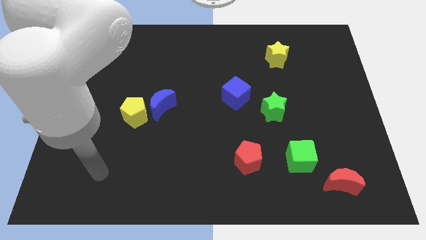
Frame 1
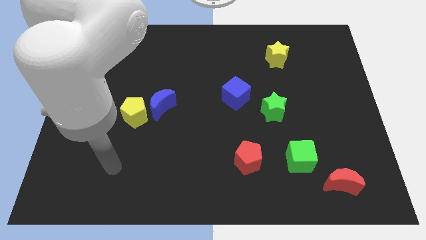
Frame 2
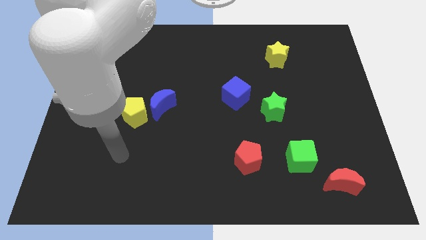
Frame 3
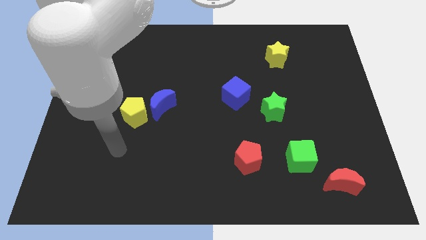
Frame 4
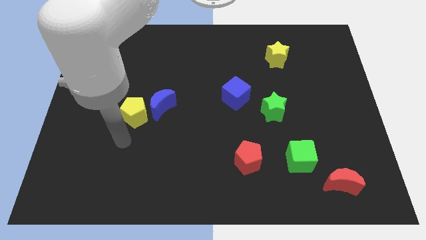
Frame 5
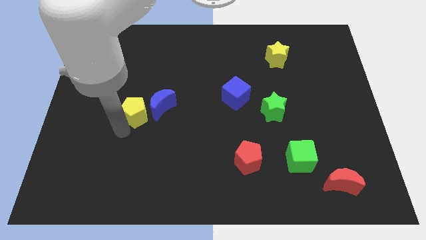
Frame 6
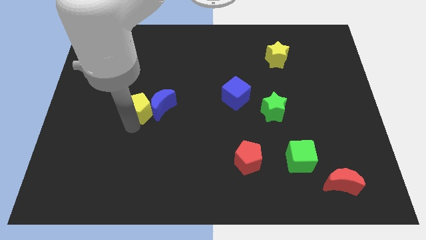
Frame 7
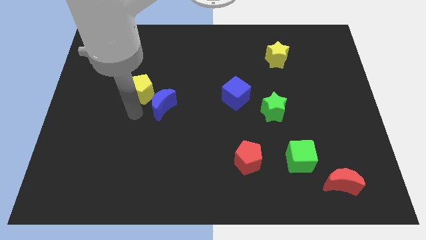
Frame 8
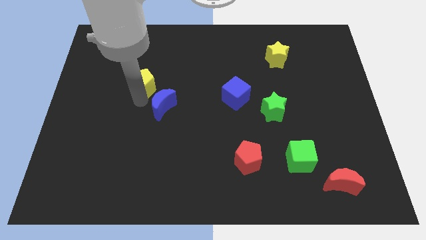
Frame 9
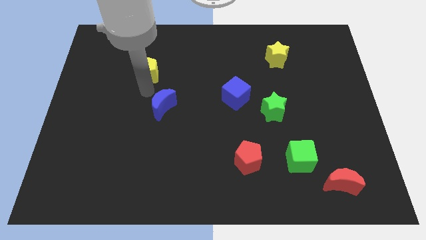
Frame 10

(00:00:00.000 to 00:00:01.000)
separate the blue moon from the yellow pentagon

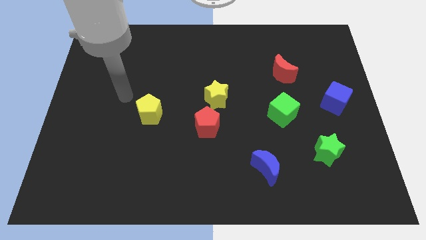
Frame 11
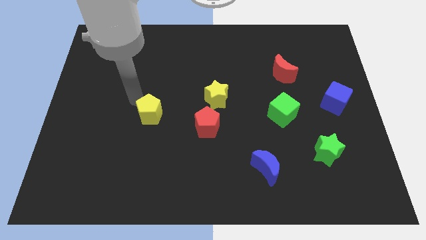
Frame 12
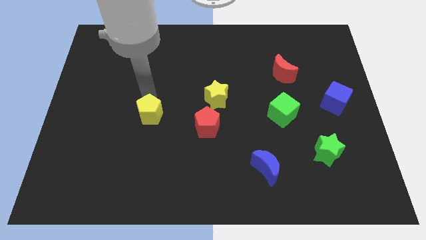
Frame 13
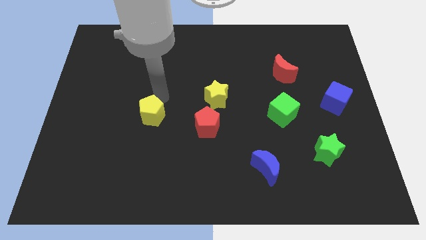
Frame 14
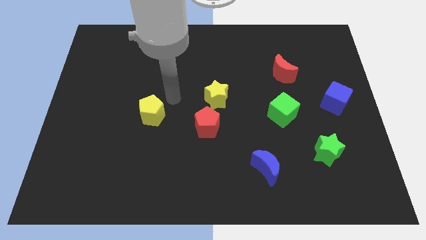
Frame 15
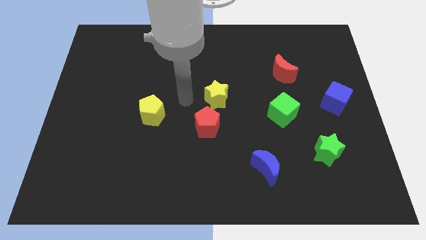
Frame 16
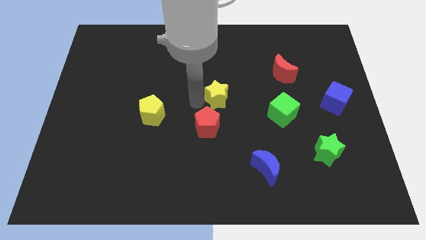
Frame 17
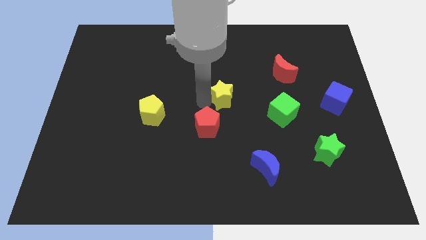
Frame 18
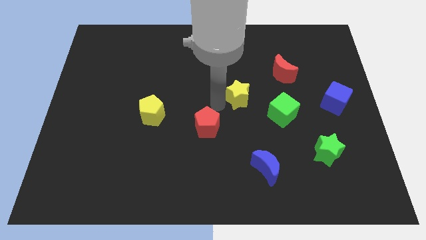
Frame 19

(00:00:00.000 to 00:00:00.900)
move the red pentagon away from the yellow star

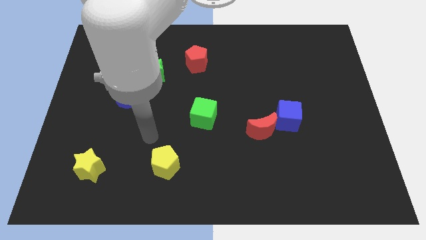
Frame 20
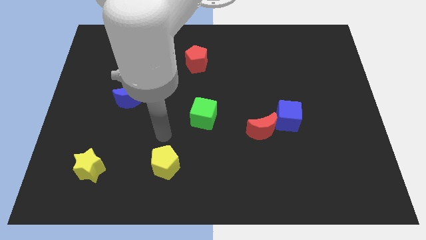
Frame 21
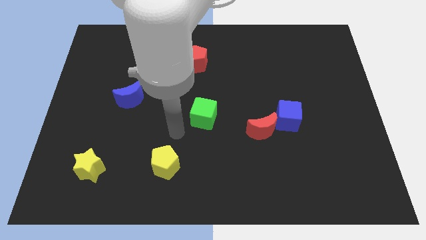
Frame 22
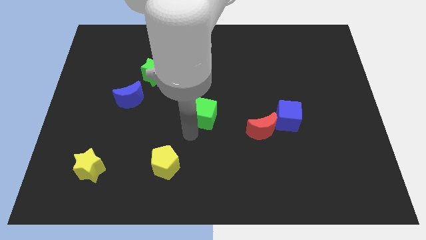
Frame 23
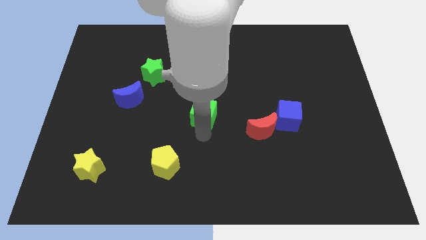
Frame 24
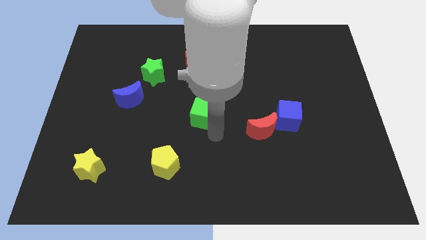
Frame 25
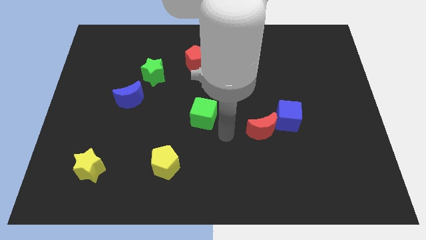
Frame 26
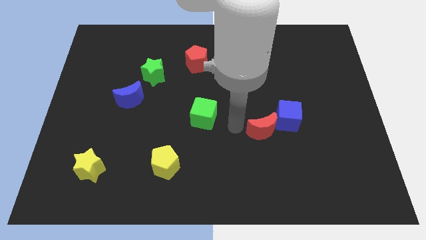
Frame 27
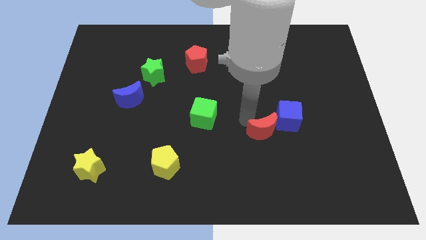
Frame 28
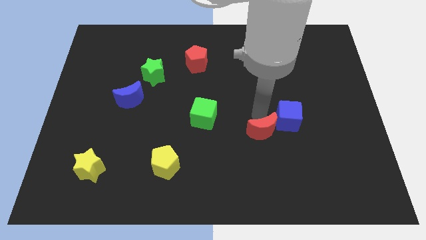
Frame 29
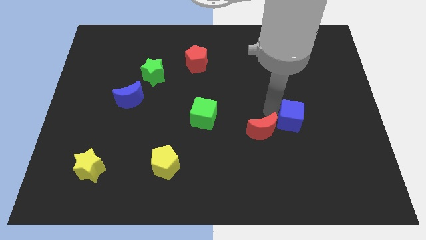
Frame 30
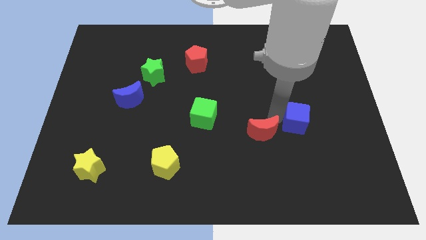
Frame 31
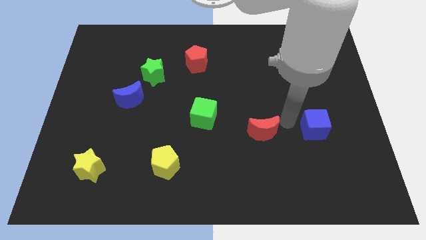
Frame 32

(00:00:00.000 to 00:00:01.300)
pull the red moon apart from the blue cube

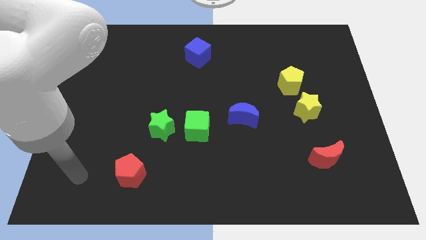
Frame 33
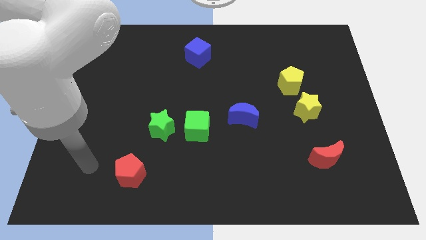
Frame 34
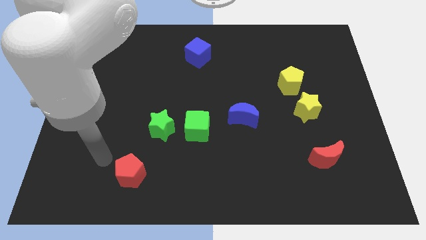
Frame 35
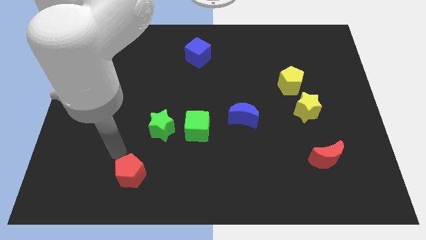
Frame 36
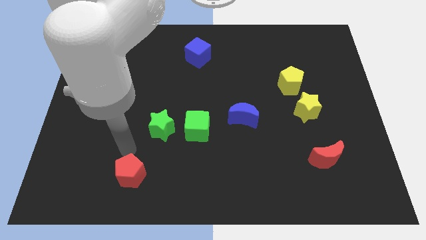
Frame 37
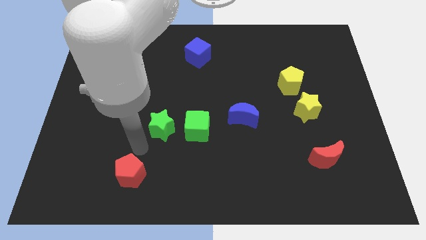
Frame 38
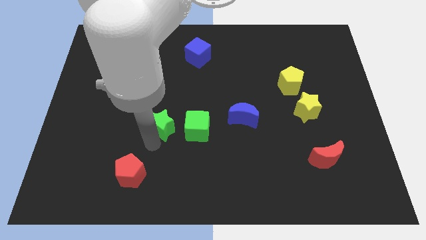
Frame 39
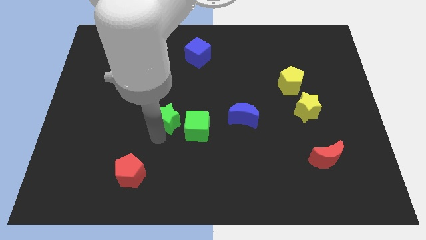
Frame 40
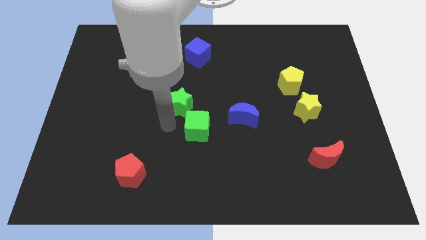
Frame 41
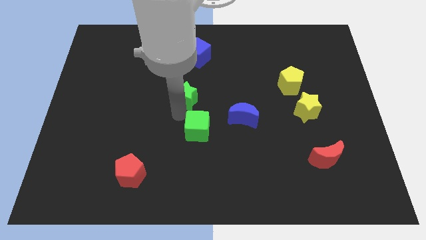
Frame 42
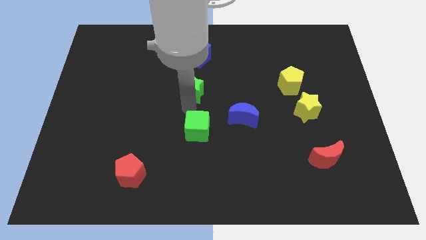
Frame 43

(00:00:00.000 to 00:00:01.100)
separate the green cube from the green star

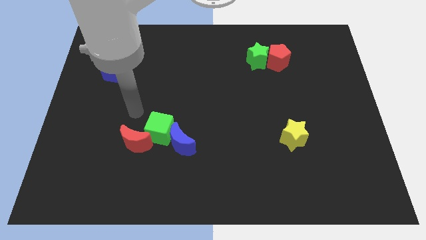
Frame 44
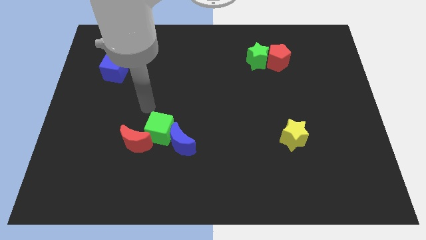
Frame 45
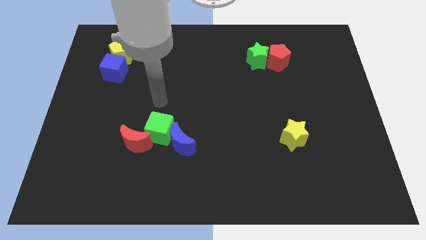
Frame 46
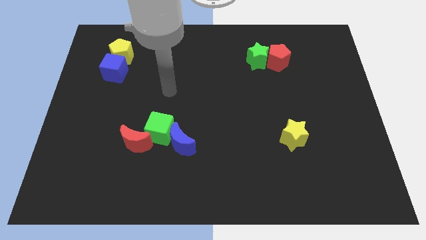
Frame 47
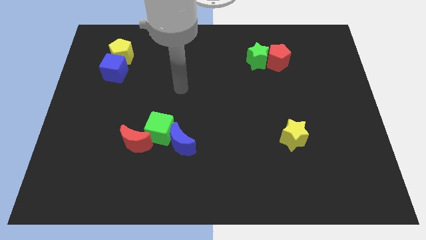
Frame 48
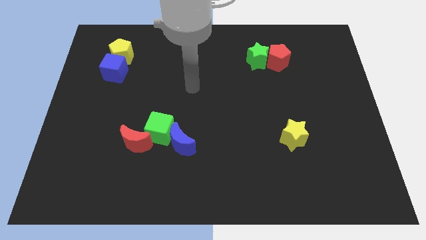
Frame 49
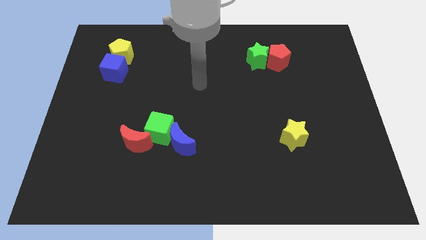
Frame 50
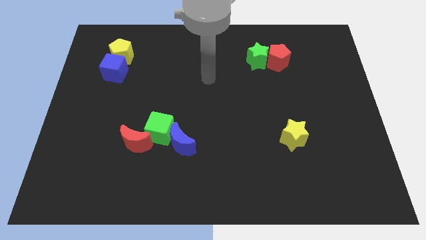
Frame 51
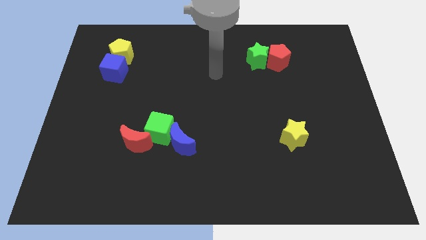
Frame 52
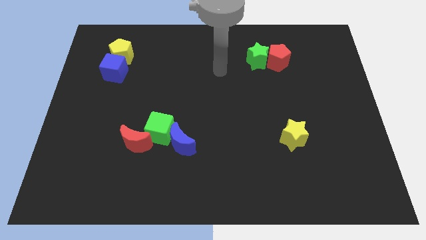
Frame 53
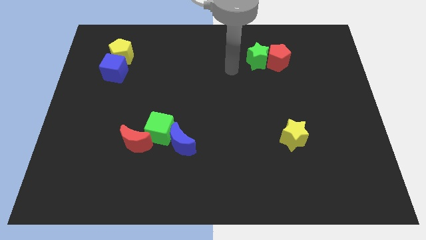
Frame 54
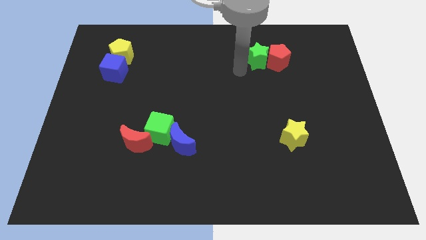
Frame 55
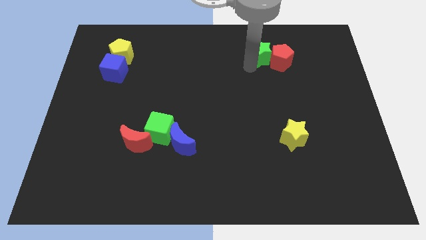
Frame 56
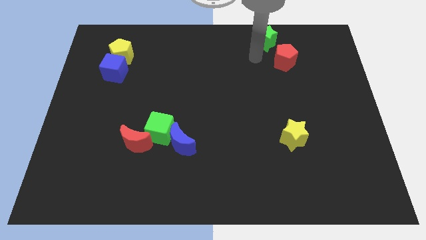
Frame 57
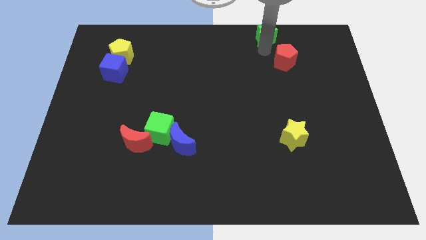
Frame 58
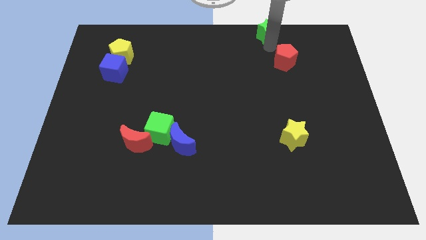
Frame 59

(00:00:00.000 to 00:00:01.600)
move the red pentagon away from the green star

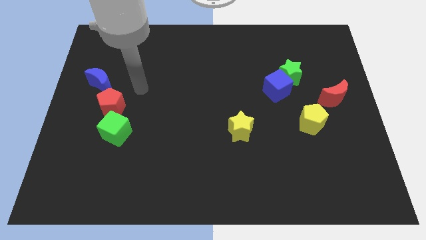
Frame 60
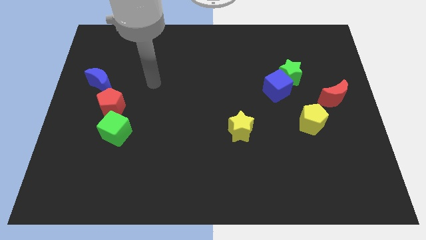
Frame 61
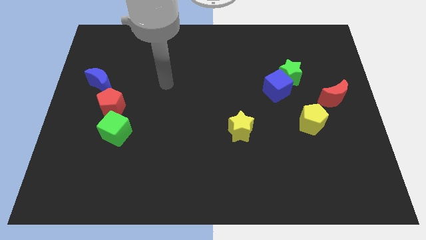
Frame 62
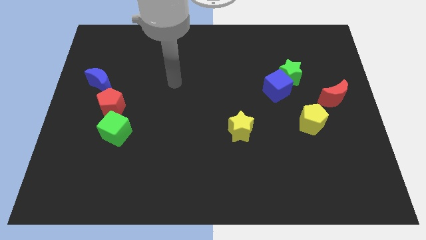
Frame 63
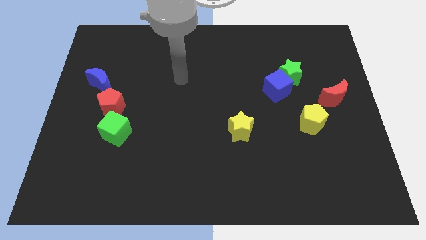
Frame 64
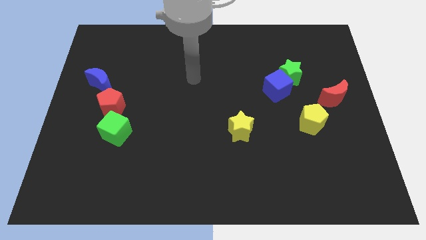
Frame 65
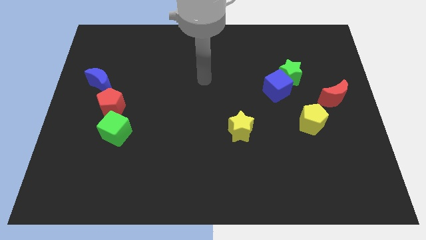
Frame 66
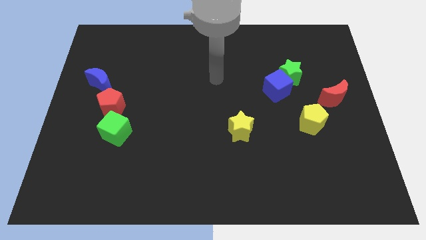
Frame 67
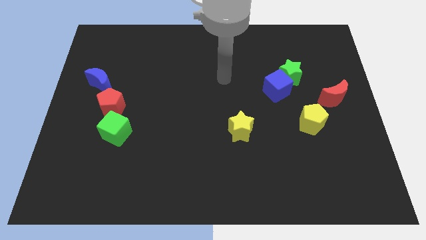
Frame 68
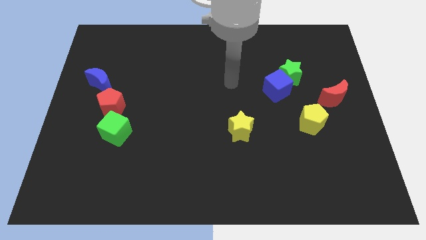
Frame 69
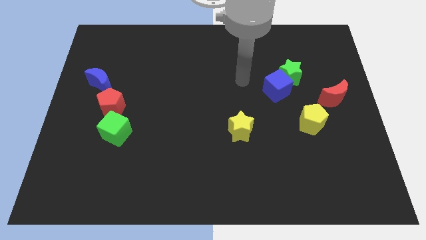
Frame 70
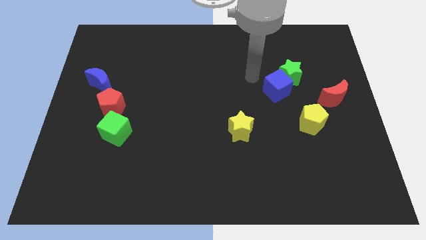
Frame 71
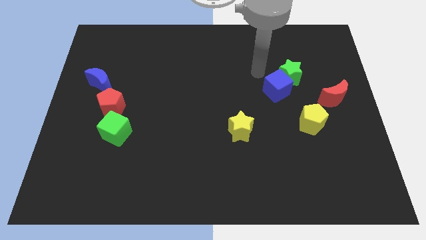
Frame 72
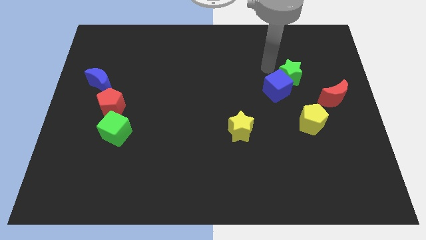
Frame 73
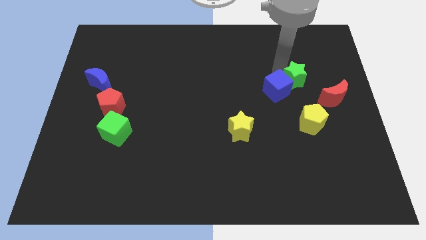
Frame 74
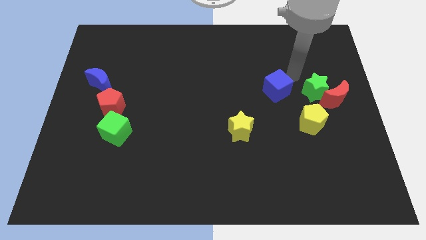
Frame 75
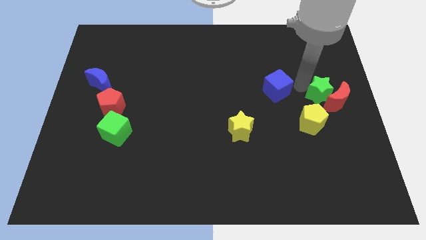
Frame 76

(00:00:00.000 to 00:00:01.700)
move the blue cube away from the green star

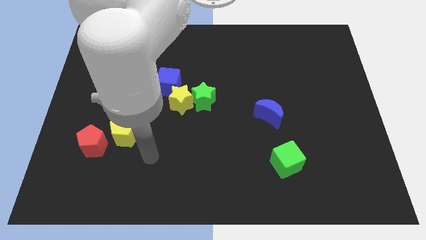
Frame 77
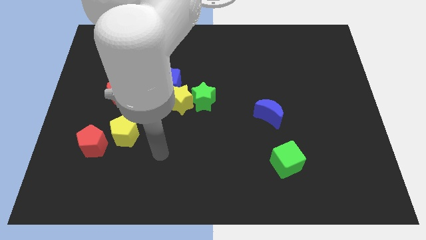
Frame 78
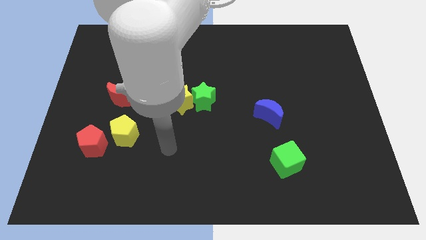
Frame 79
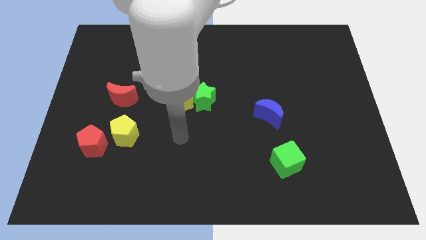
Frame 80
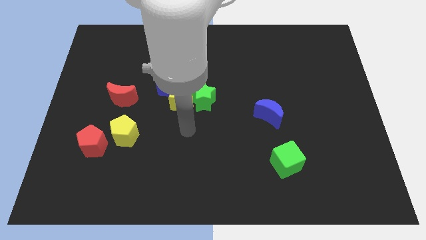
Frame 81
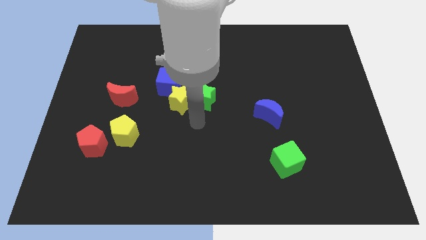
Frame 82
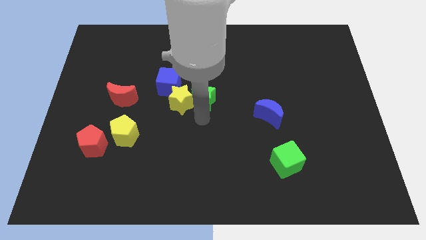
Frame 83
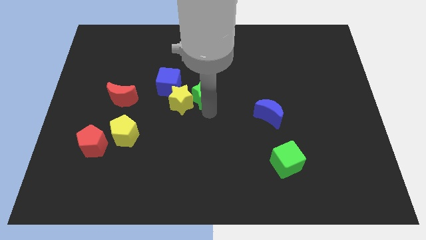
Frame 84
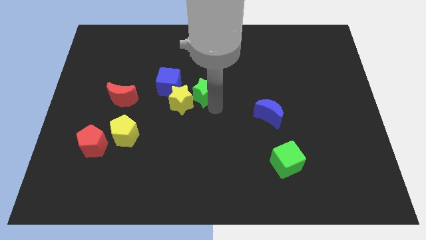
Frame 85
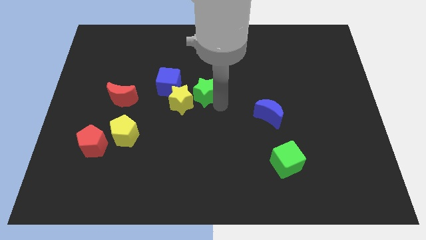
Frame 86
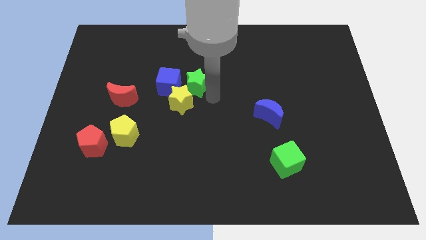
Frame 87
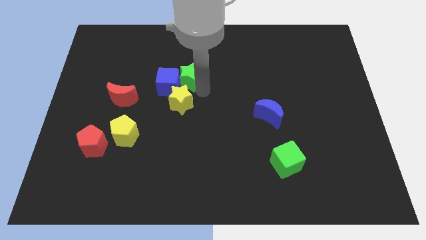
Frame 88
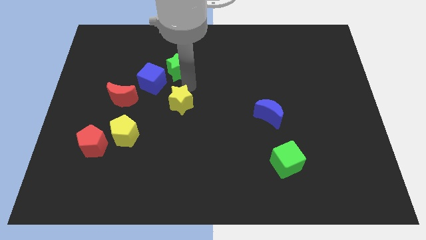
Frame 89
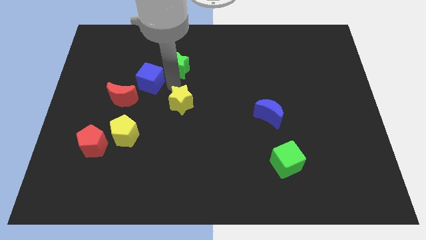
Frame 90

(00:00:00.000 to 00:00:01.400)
pull the yellow star apart from the green star and blue cube

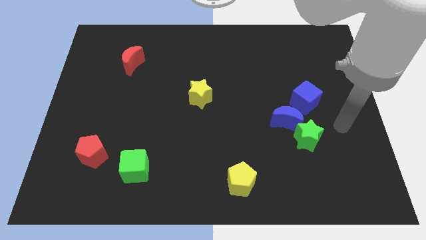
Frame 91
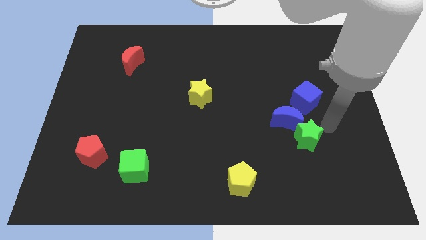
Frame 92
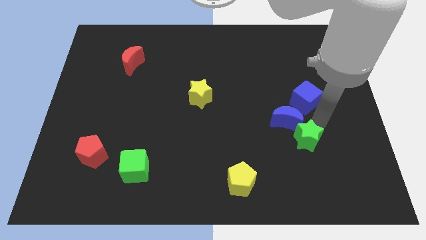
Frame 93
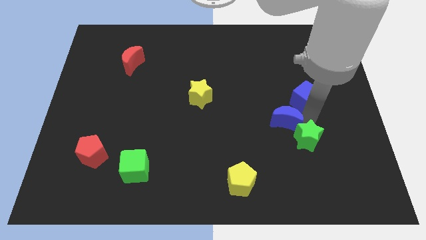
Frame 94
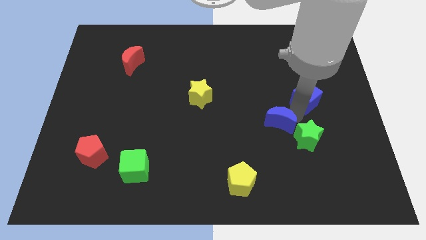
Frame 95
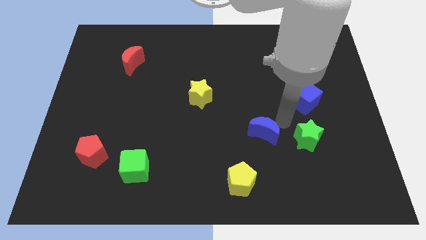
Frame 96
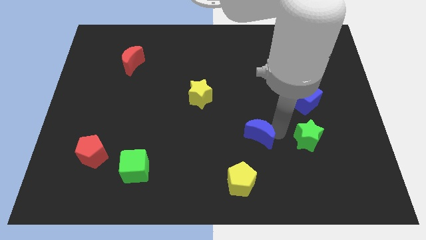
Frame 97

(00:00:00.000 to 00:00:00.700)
move the green star away from the blue moon
